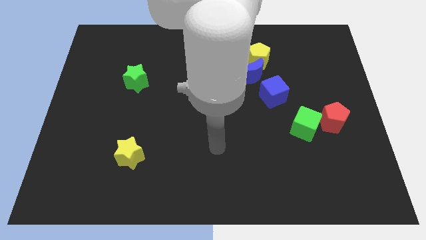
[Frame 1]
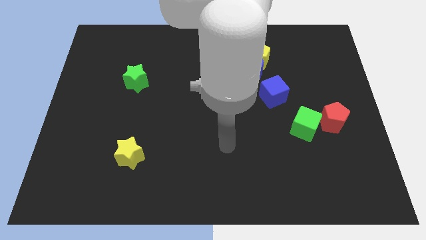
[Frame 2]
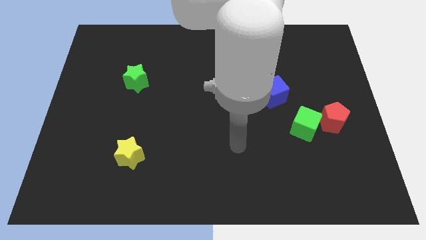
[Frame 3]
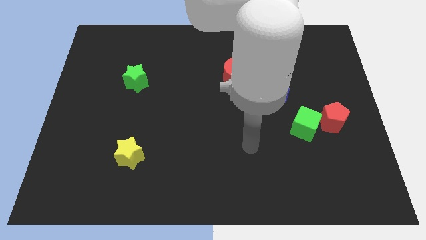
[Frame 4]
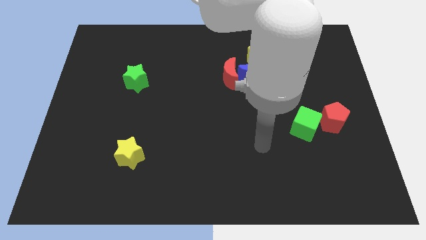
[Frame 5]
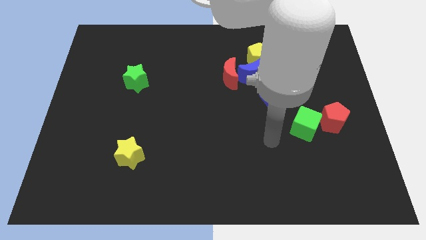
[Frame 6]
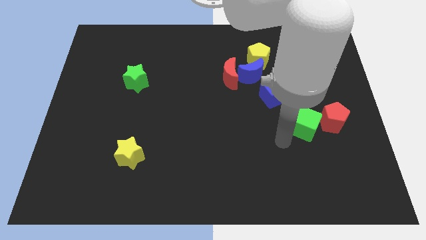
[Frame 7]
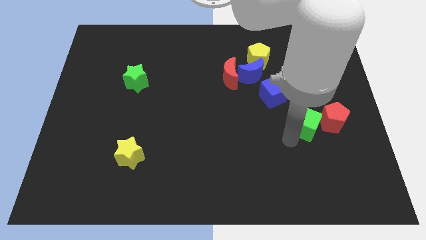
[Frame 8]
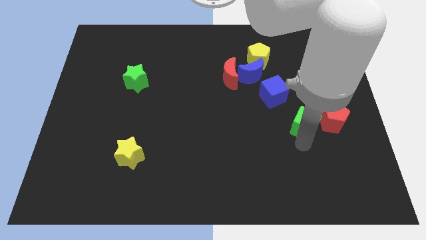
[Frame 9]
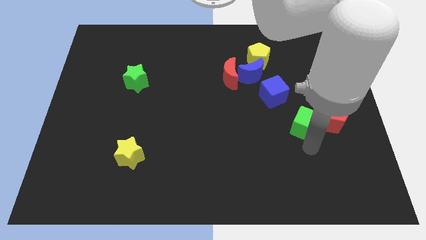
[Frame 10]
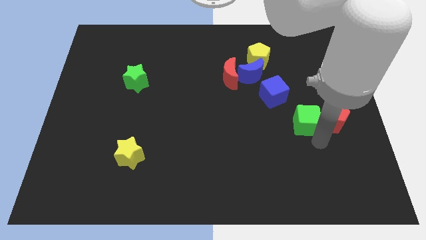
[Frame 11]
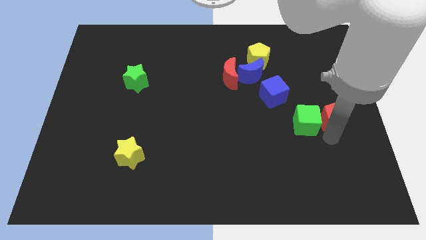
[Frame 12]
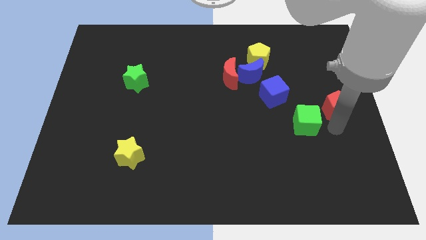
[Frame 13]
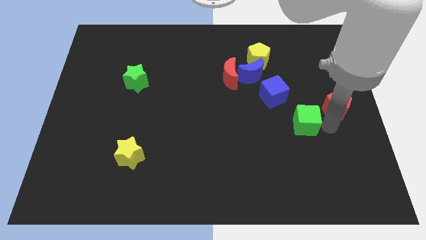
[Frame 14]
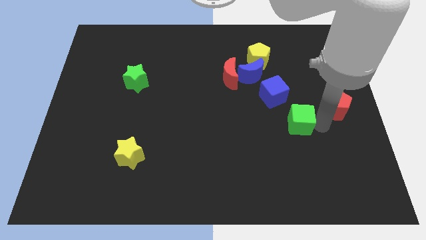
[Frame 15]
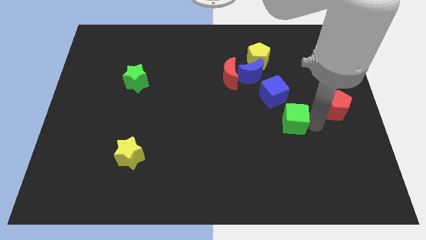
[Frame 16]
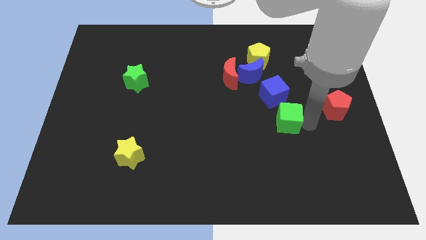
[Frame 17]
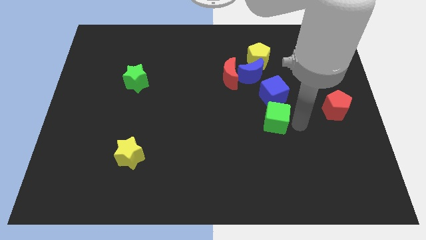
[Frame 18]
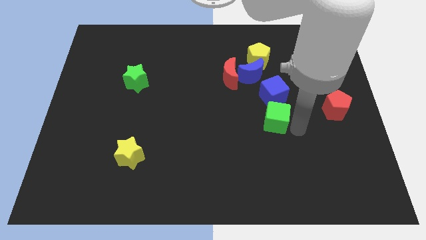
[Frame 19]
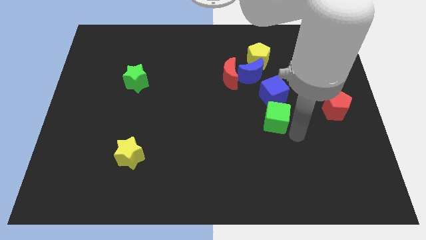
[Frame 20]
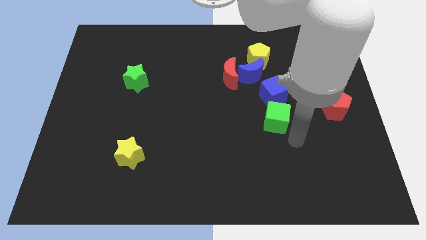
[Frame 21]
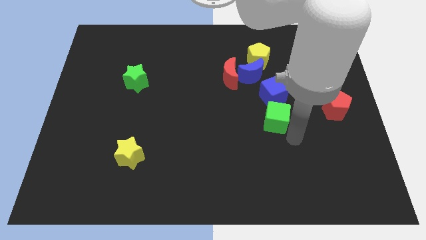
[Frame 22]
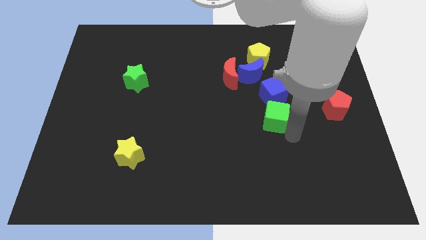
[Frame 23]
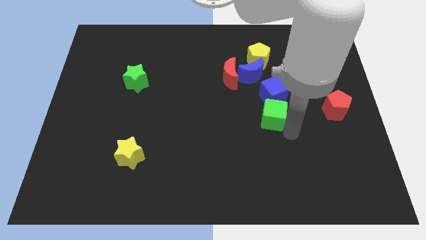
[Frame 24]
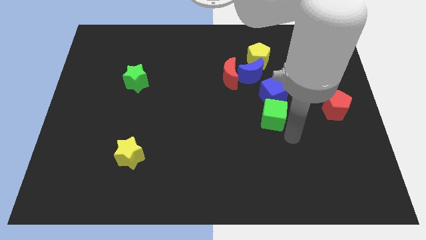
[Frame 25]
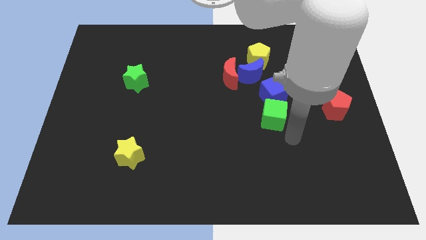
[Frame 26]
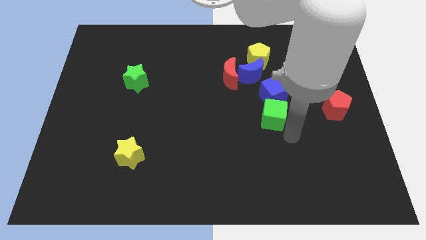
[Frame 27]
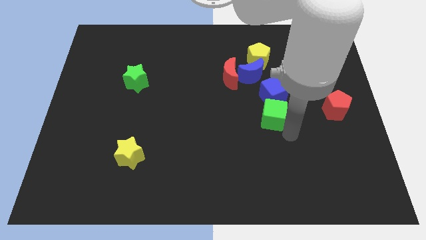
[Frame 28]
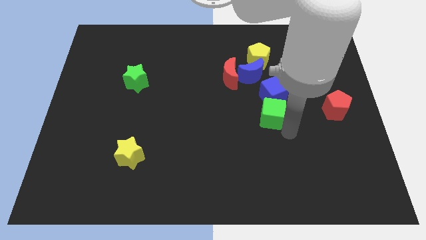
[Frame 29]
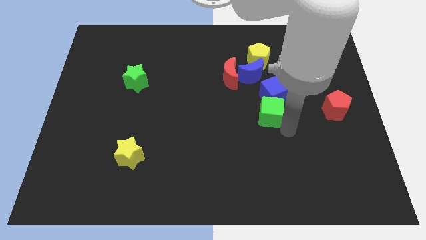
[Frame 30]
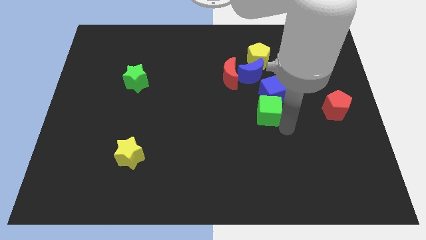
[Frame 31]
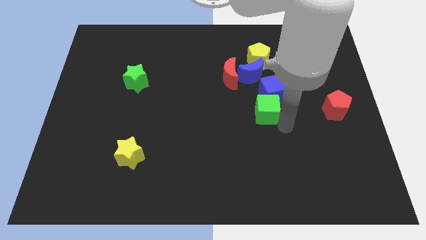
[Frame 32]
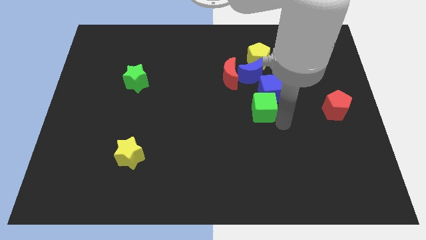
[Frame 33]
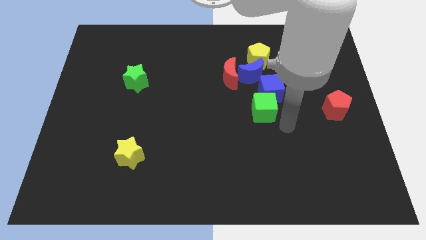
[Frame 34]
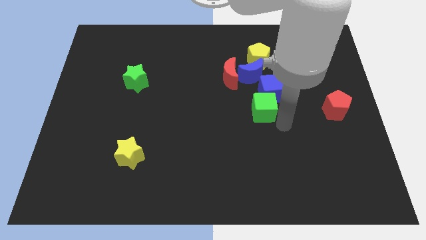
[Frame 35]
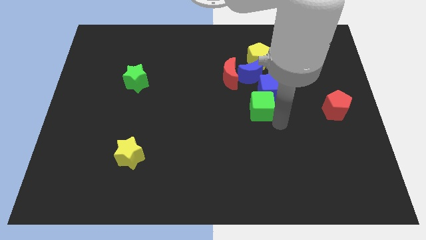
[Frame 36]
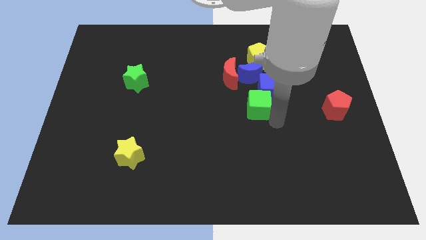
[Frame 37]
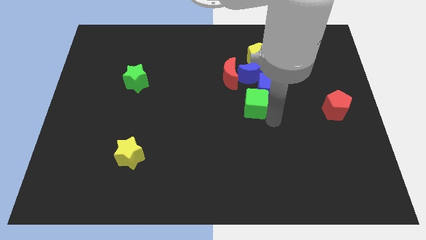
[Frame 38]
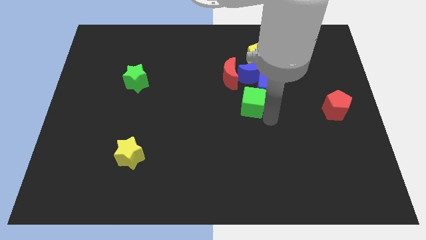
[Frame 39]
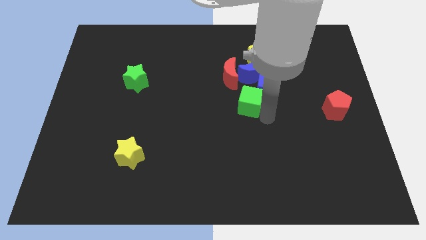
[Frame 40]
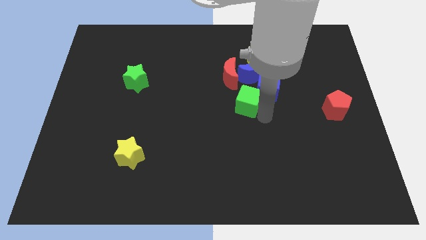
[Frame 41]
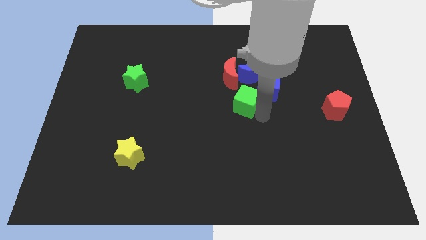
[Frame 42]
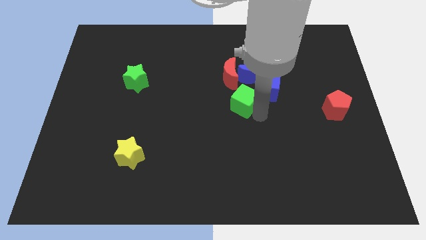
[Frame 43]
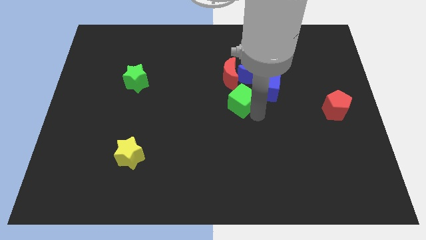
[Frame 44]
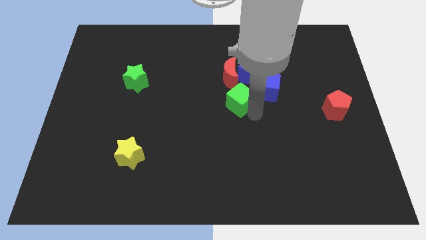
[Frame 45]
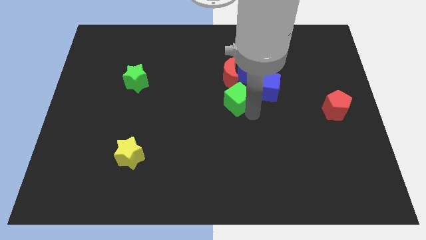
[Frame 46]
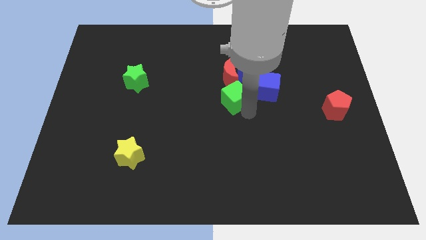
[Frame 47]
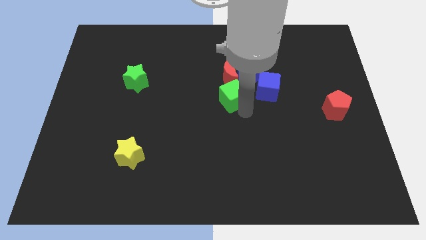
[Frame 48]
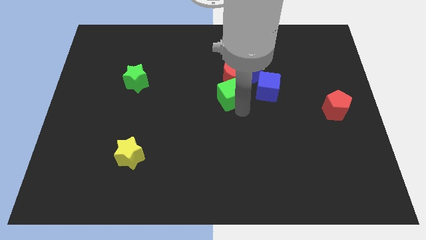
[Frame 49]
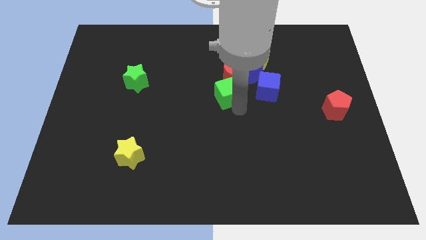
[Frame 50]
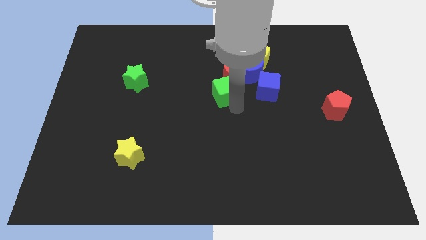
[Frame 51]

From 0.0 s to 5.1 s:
move the green cube next to the red moon

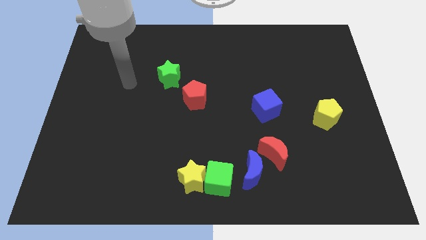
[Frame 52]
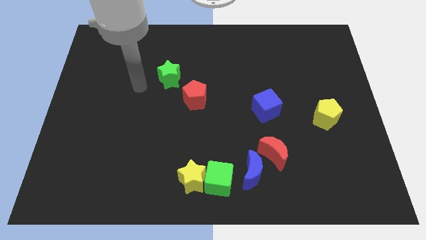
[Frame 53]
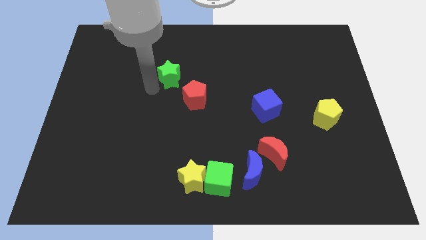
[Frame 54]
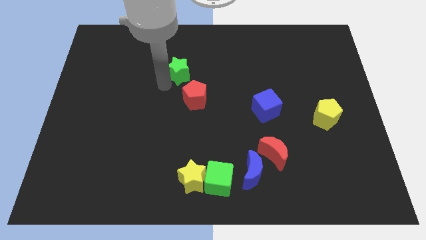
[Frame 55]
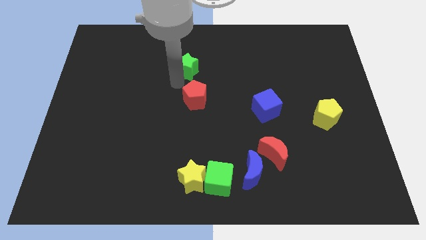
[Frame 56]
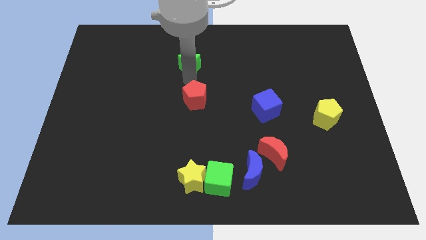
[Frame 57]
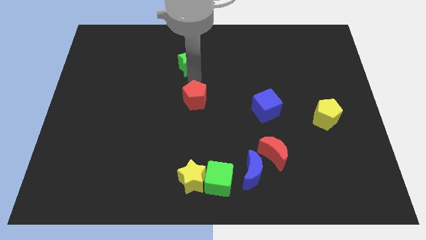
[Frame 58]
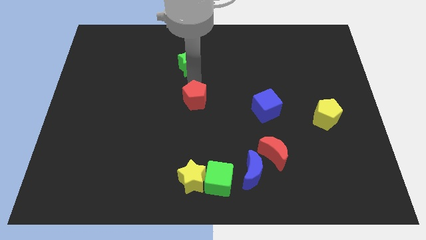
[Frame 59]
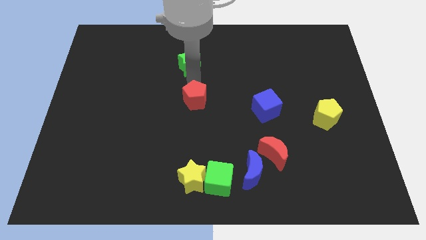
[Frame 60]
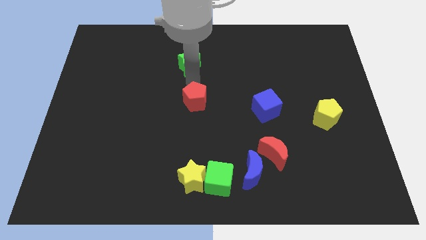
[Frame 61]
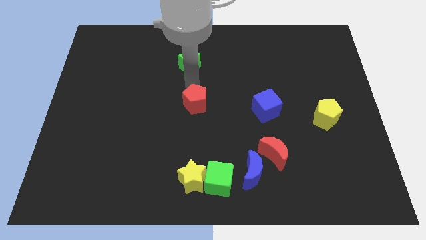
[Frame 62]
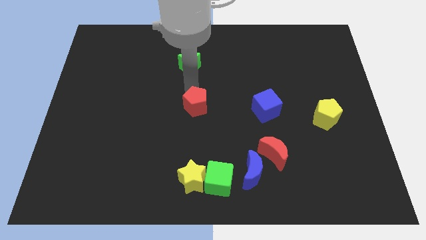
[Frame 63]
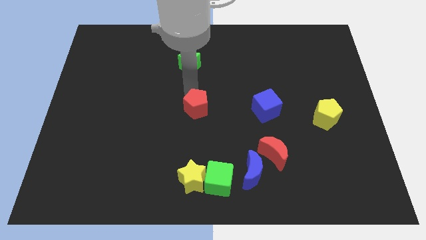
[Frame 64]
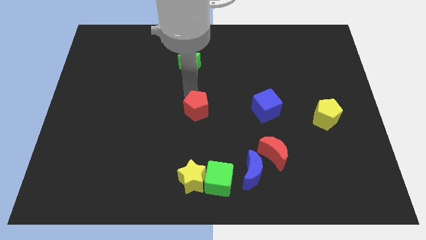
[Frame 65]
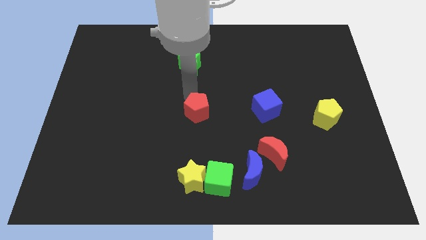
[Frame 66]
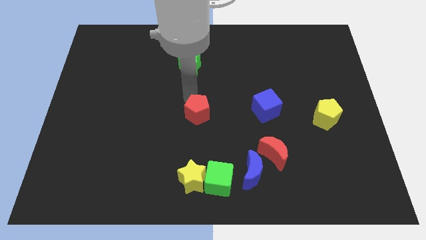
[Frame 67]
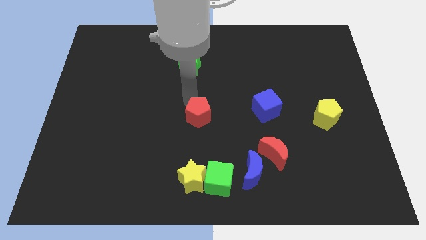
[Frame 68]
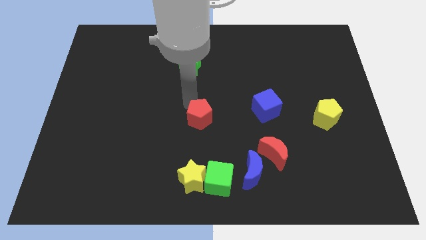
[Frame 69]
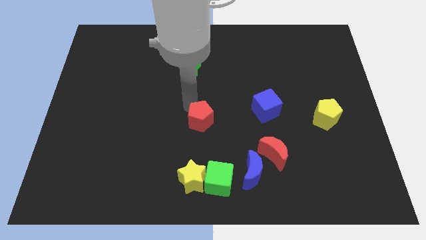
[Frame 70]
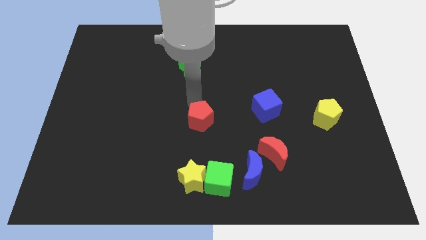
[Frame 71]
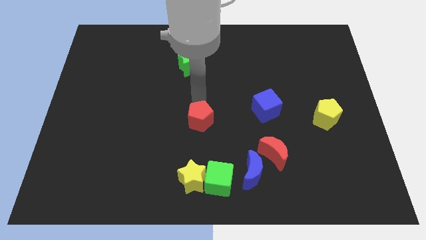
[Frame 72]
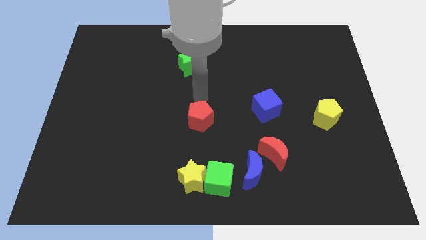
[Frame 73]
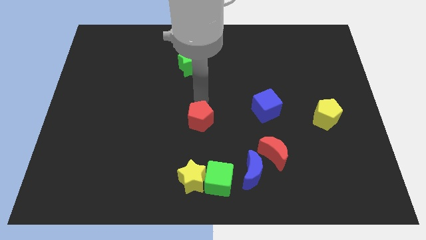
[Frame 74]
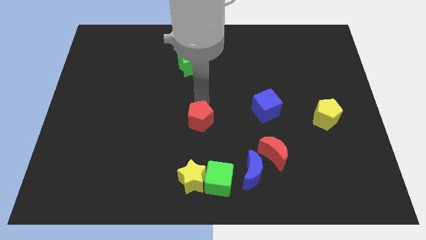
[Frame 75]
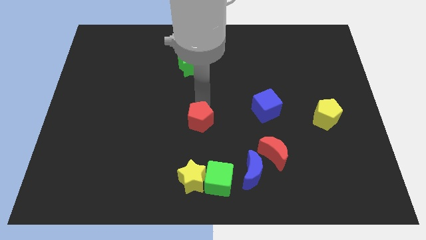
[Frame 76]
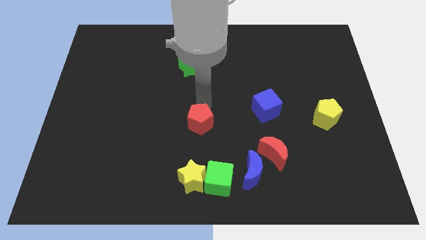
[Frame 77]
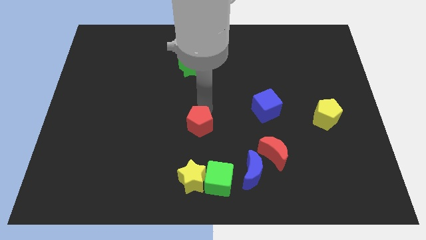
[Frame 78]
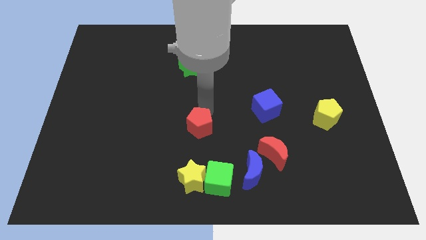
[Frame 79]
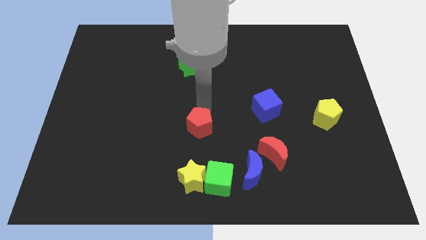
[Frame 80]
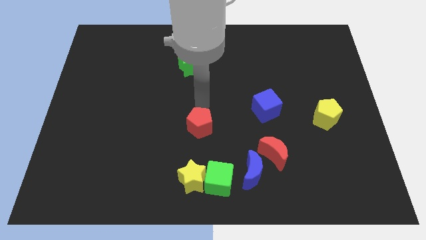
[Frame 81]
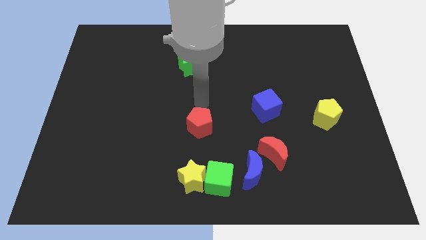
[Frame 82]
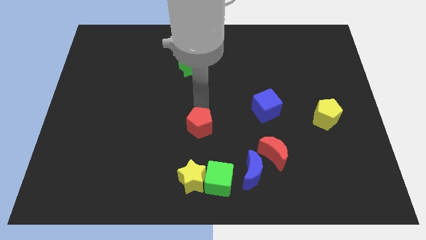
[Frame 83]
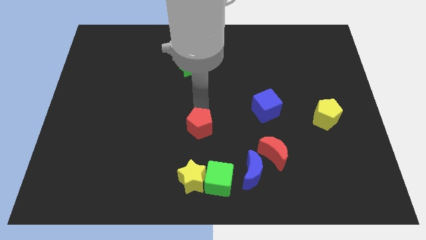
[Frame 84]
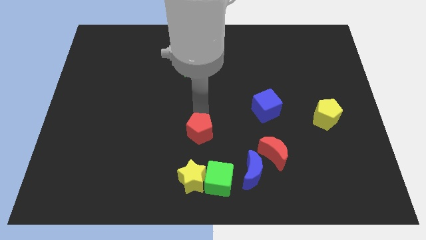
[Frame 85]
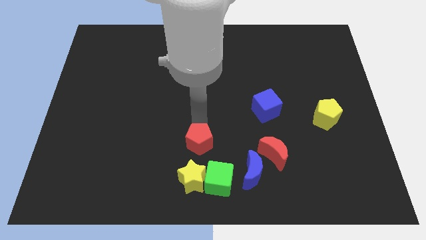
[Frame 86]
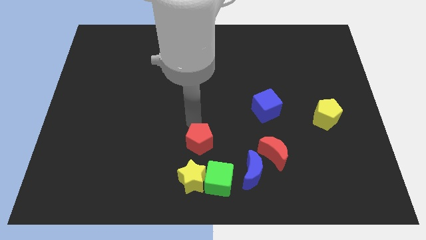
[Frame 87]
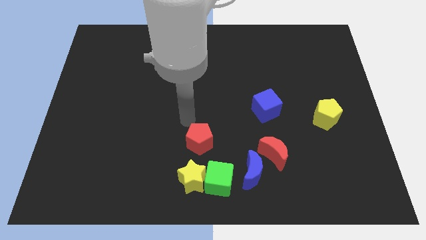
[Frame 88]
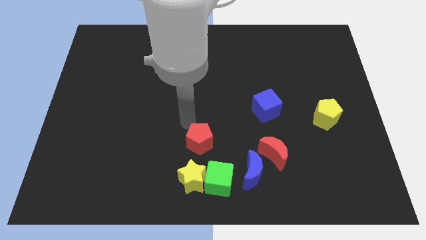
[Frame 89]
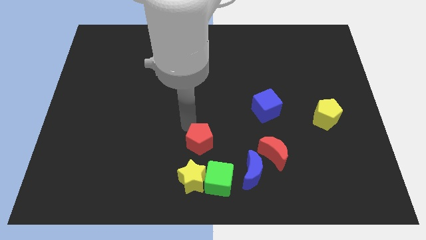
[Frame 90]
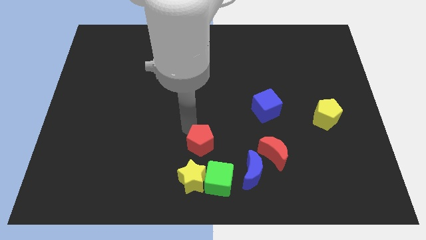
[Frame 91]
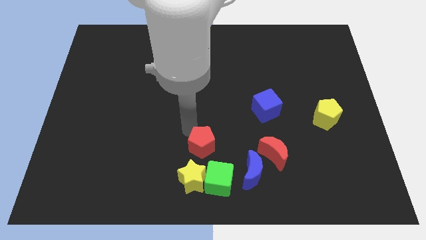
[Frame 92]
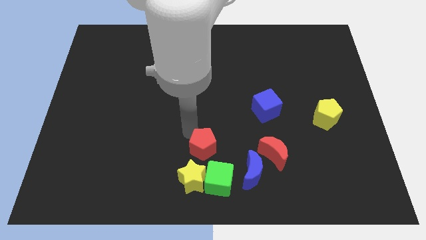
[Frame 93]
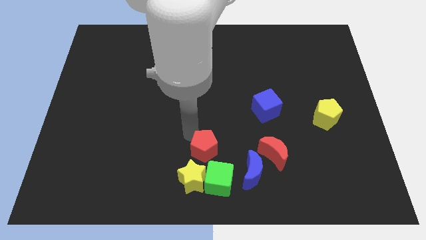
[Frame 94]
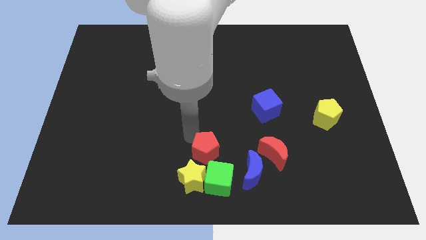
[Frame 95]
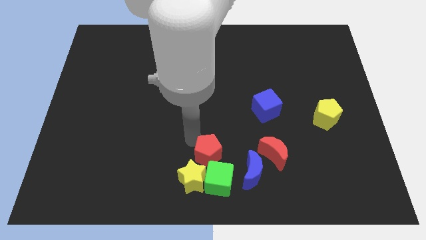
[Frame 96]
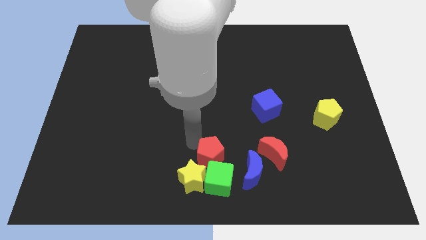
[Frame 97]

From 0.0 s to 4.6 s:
move the red pentagon next to the green cube
